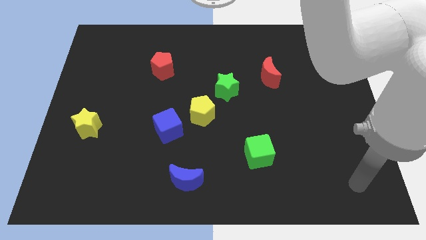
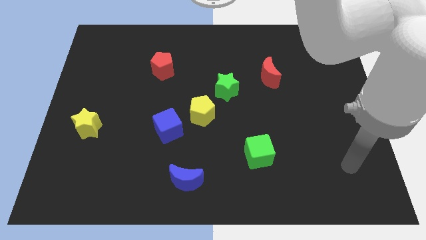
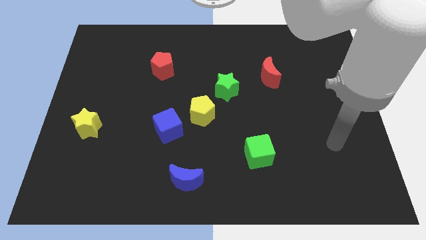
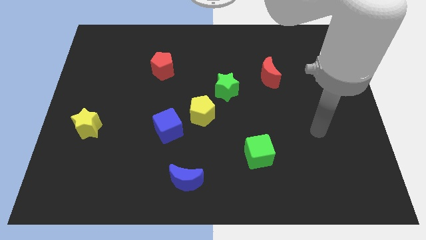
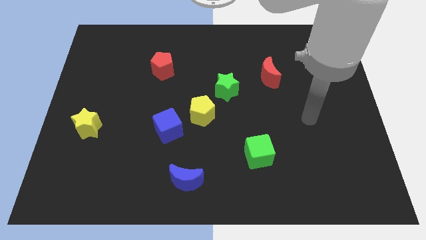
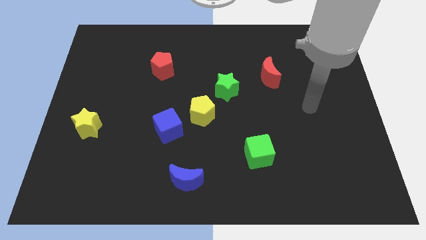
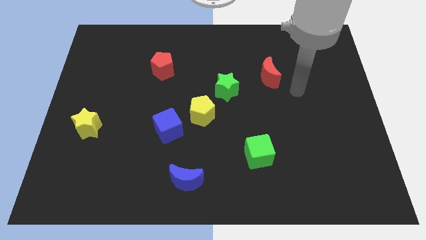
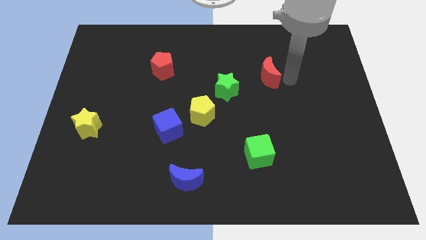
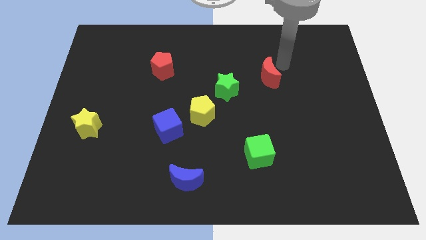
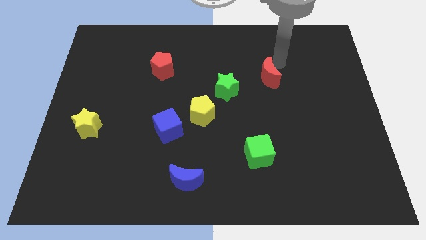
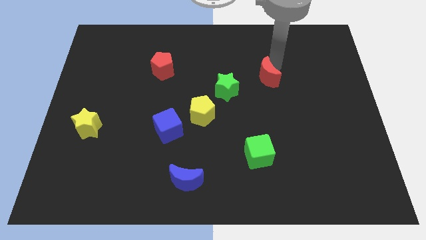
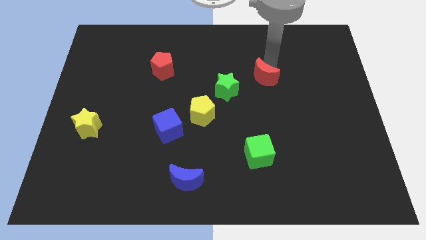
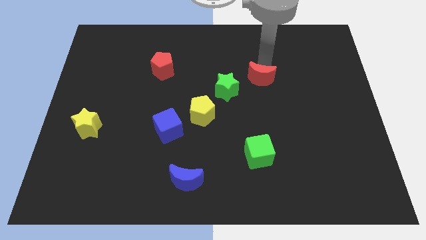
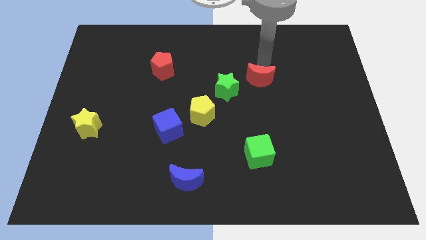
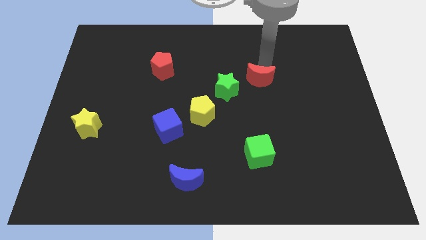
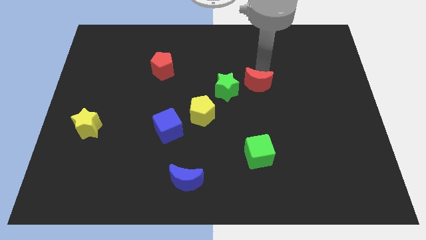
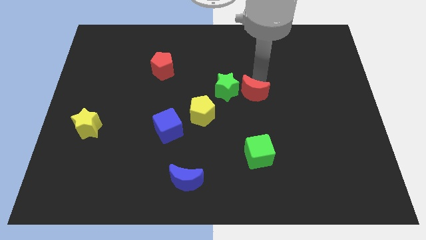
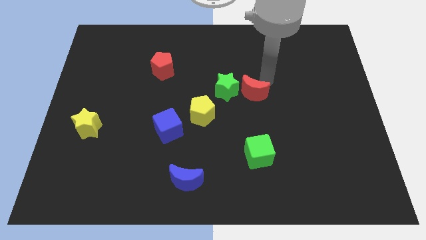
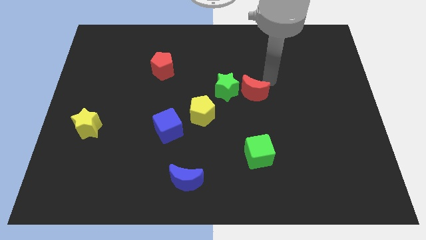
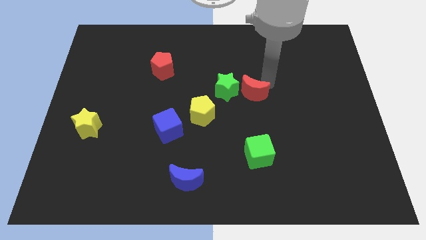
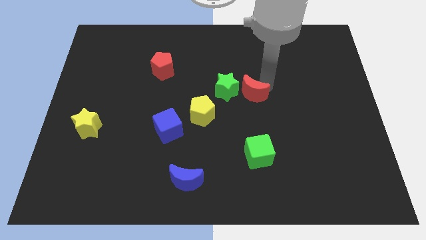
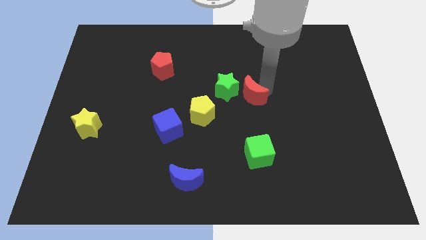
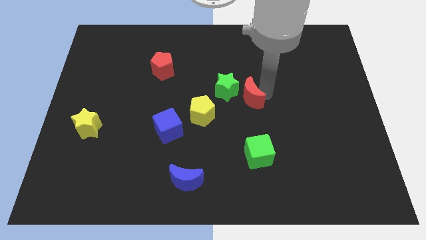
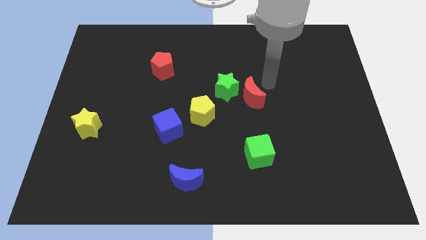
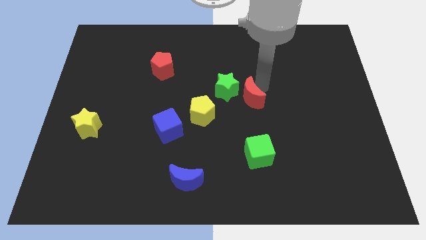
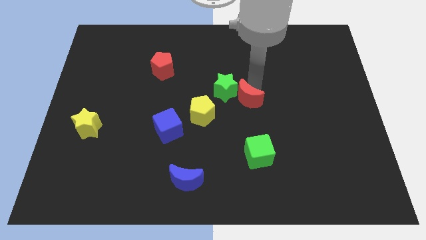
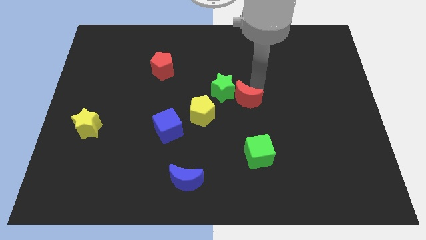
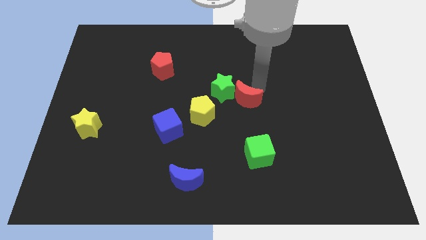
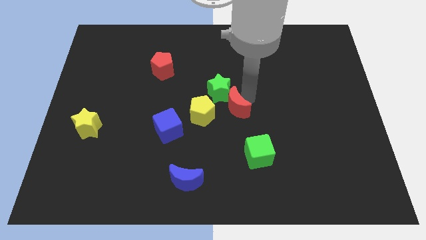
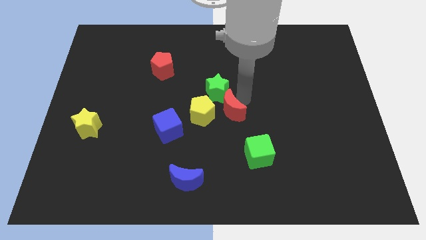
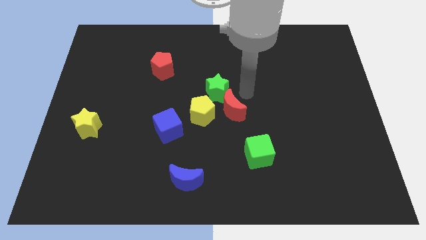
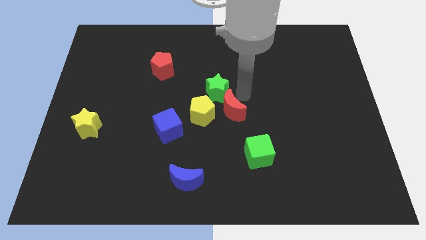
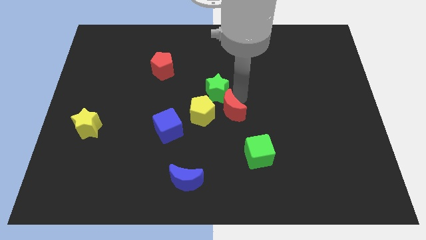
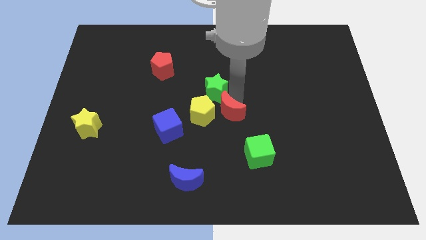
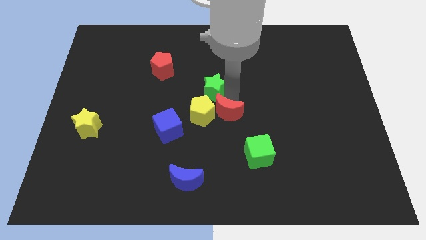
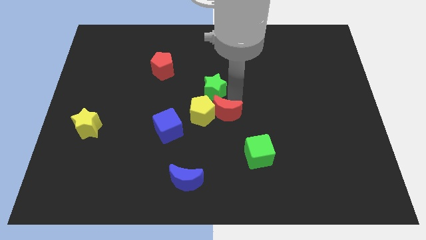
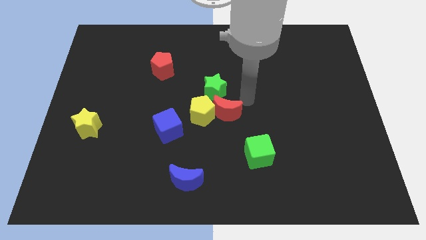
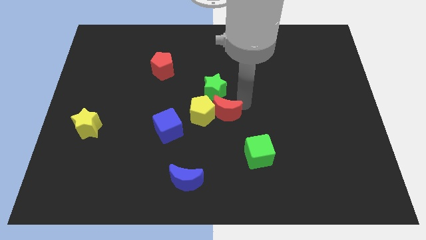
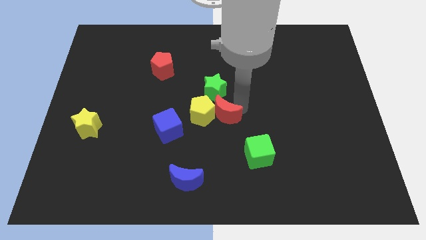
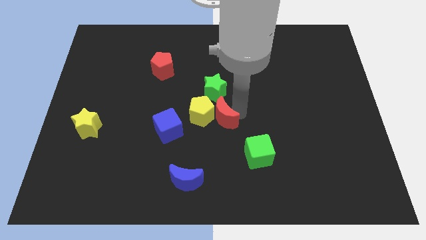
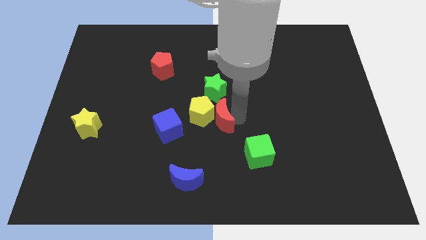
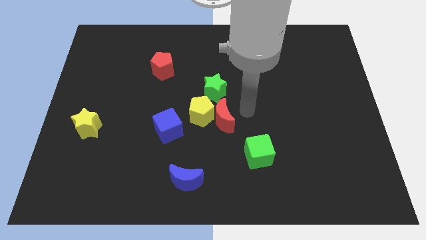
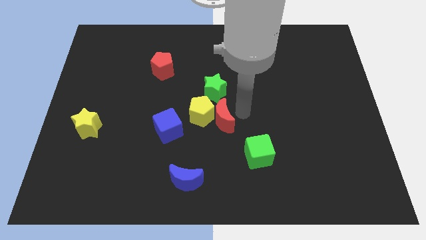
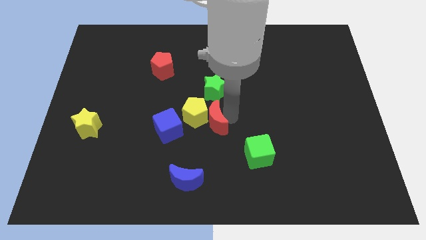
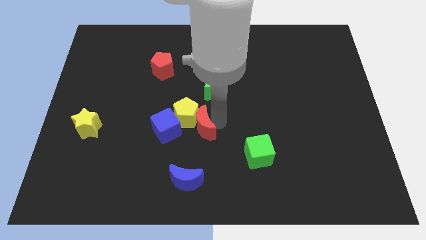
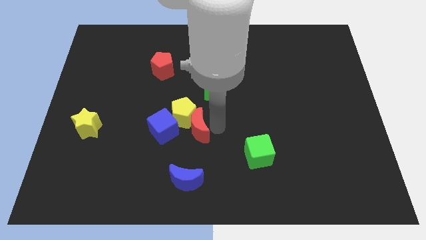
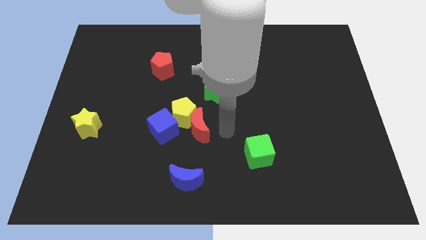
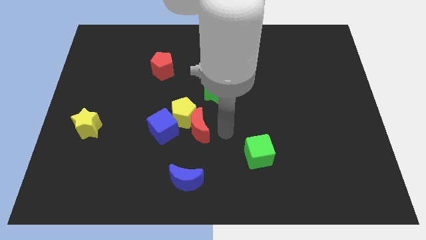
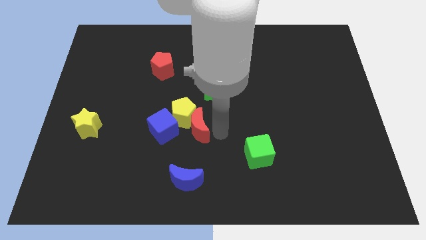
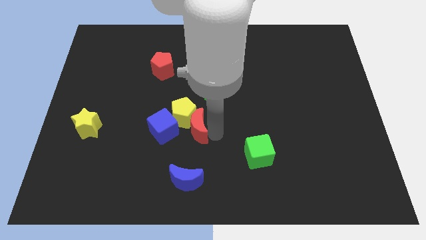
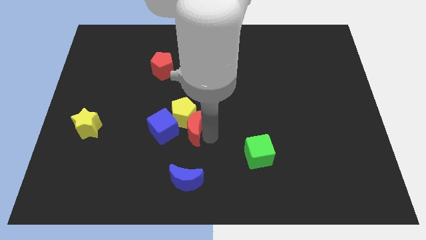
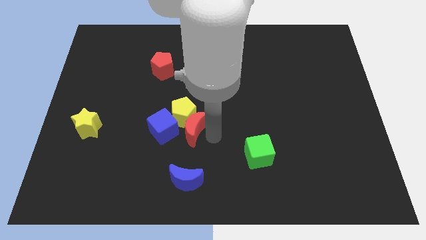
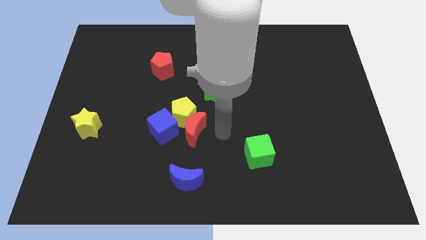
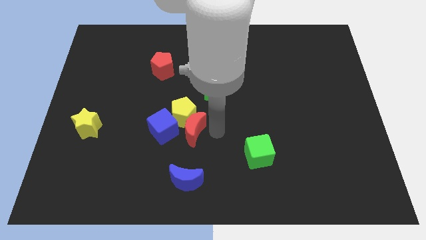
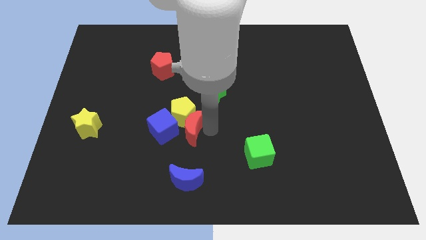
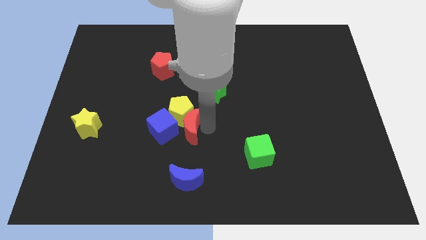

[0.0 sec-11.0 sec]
slide the red moon towards the blue cube

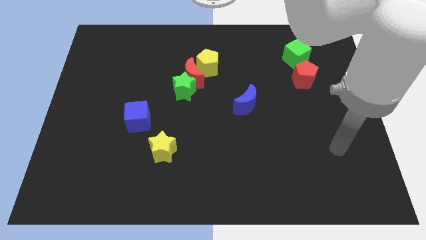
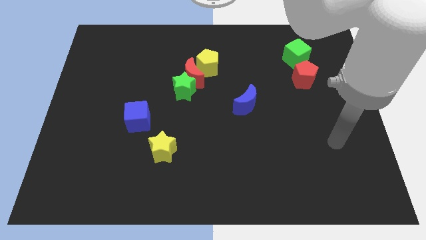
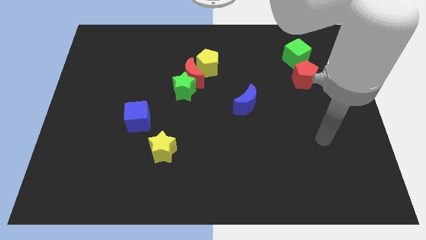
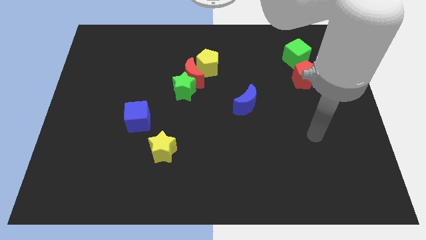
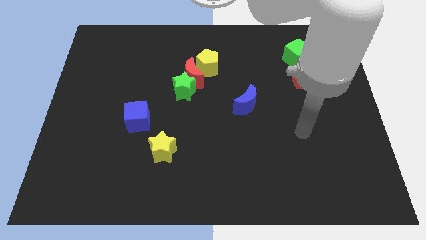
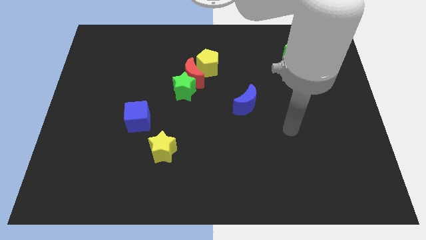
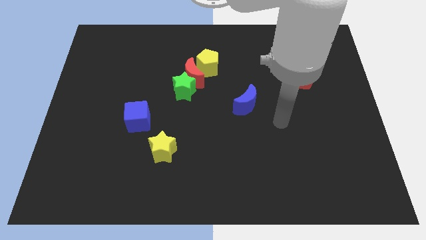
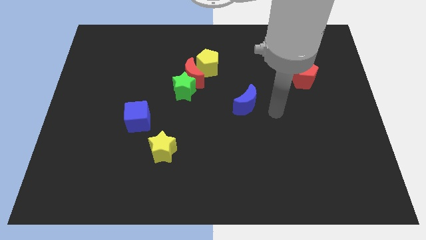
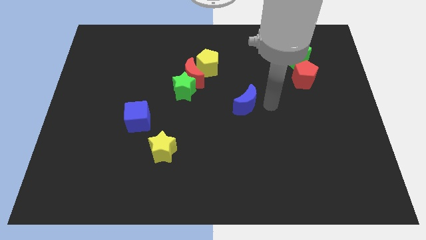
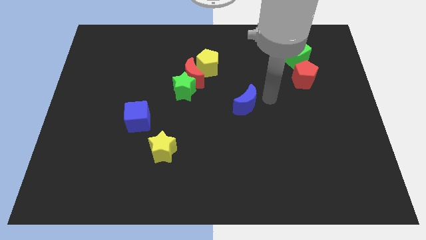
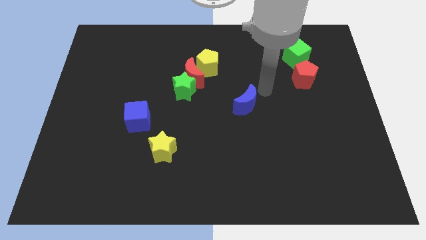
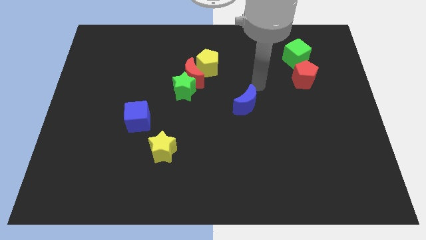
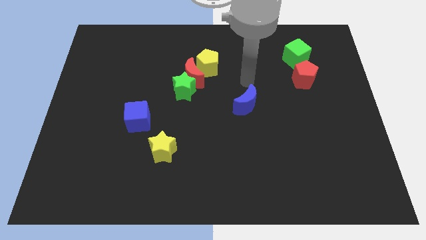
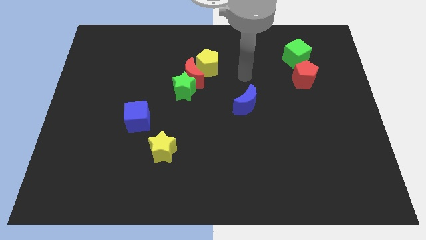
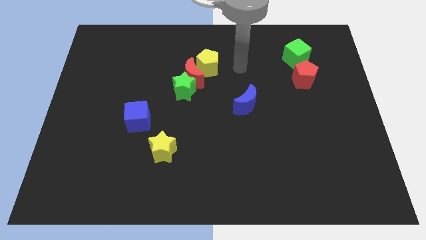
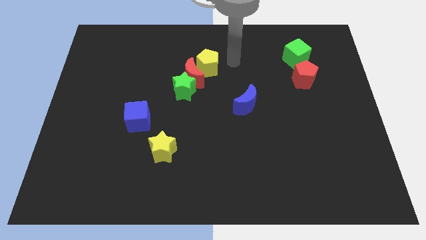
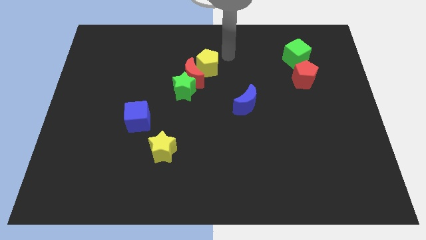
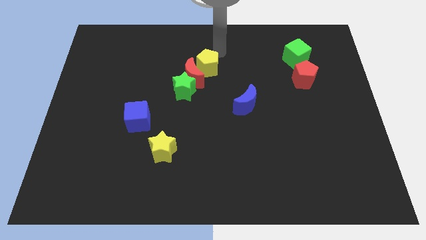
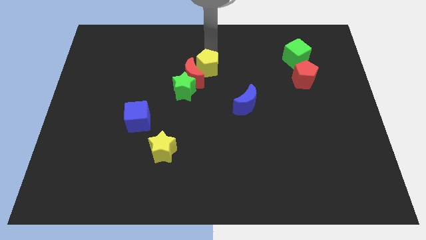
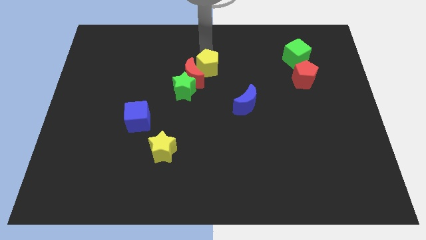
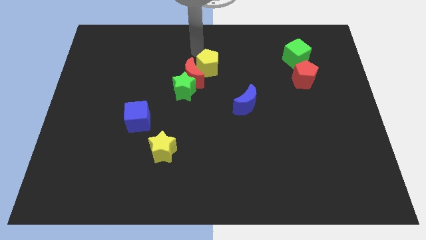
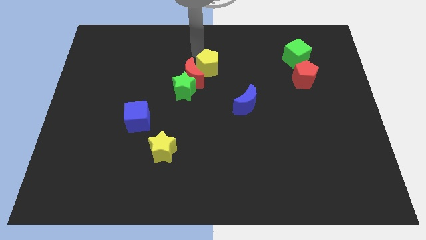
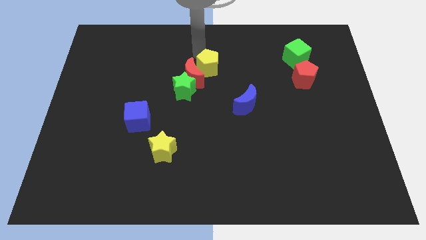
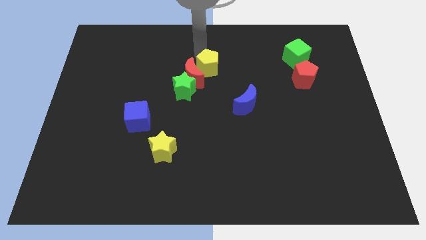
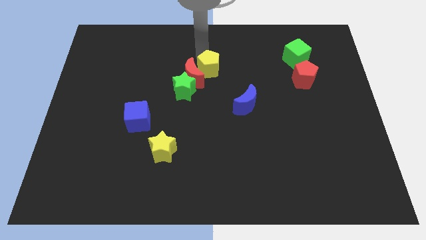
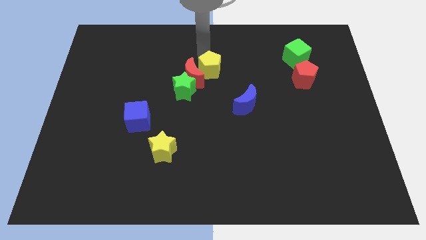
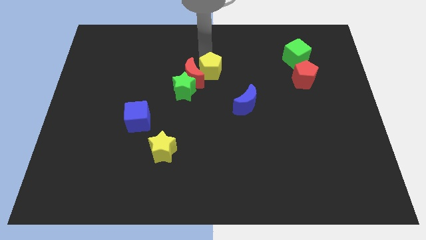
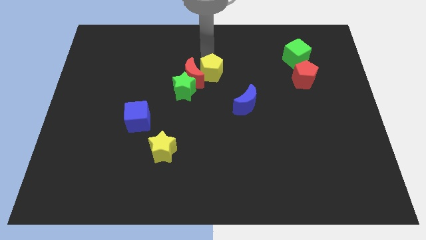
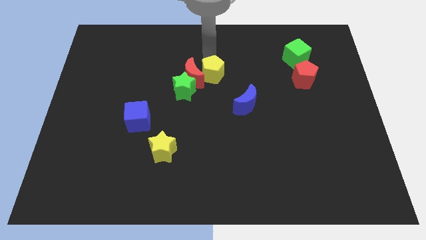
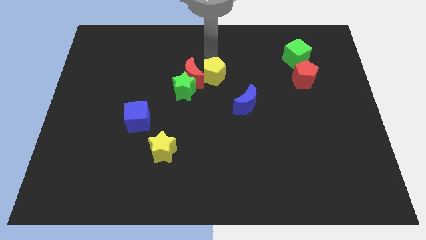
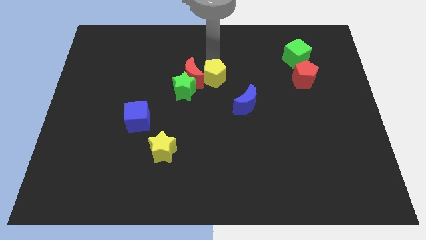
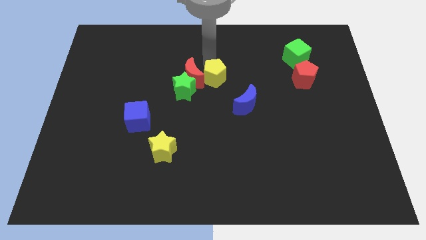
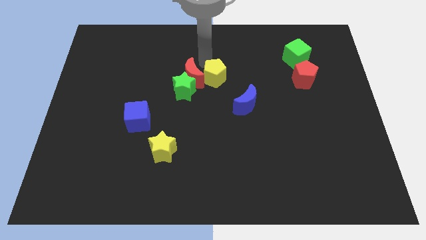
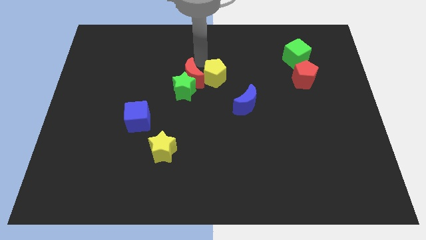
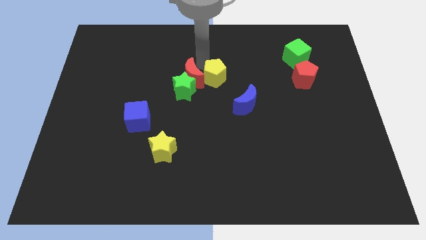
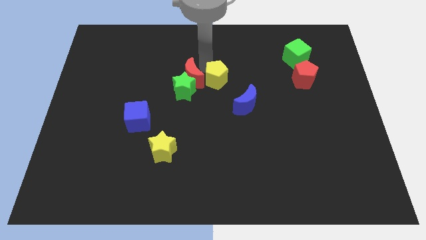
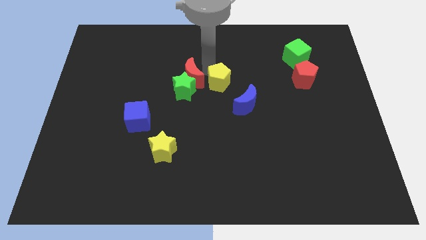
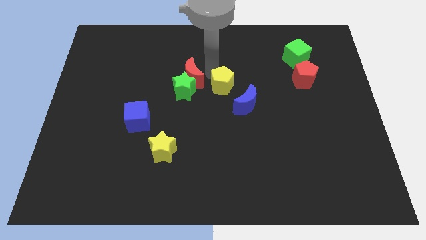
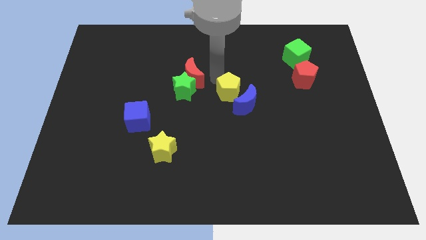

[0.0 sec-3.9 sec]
put the yellow pentagon close to the blue moon
